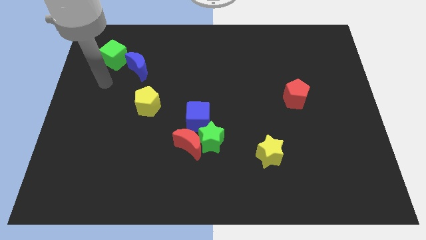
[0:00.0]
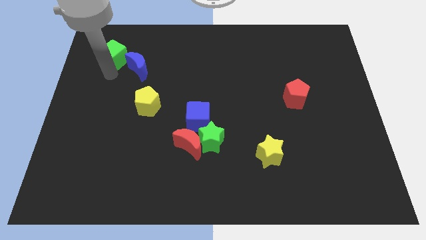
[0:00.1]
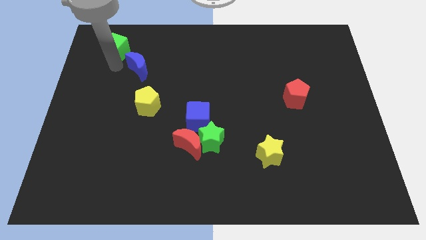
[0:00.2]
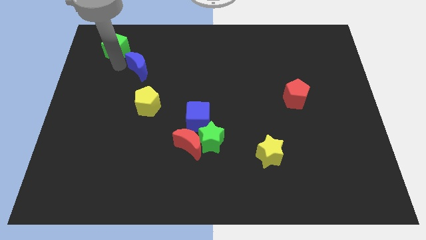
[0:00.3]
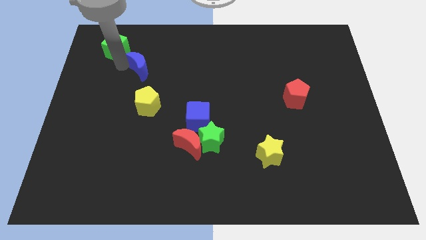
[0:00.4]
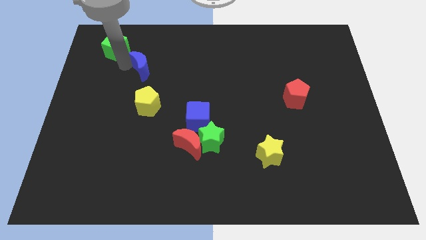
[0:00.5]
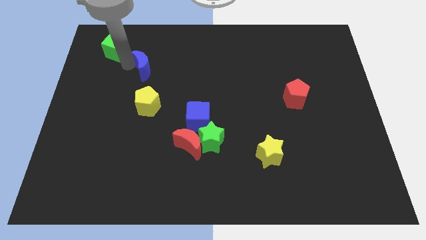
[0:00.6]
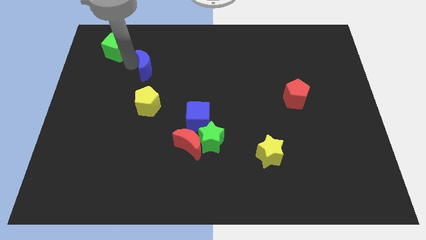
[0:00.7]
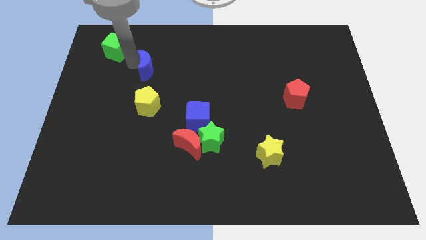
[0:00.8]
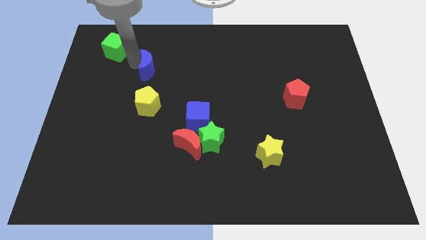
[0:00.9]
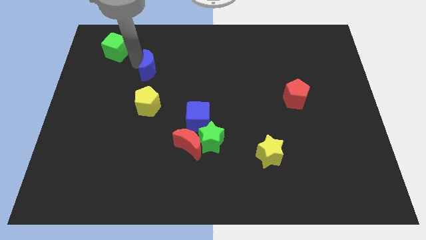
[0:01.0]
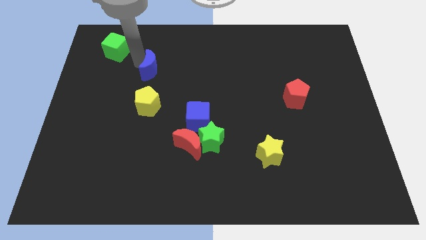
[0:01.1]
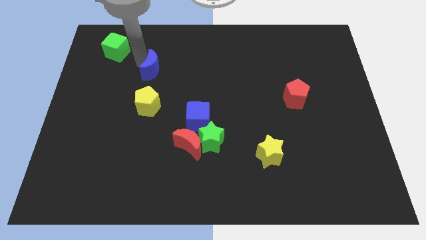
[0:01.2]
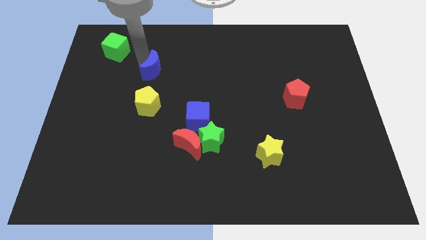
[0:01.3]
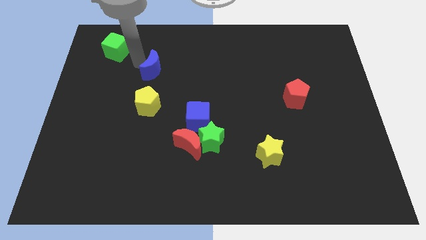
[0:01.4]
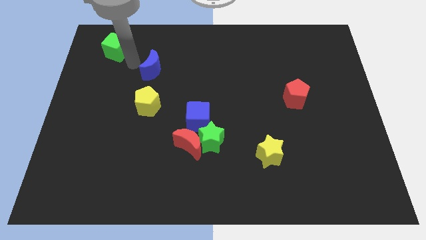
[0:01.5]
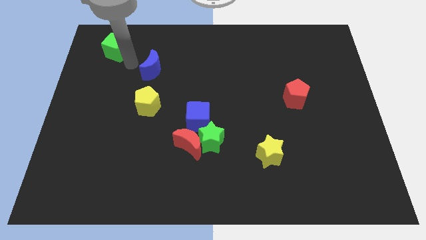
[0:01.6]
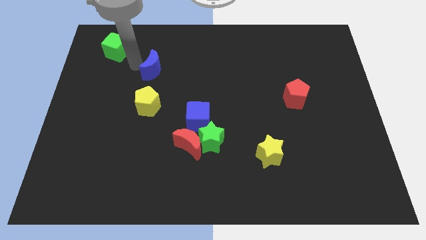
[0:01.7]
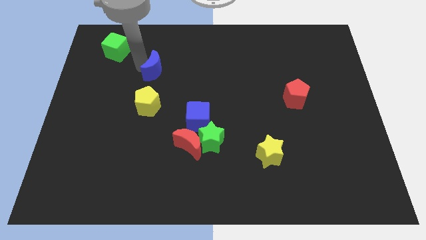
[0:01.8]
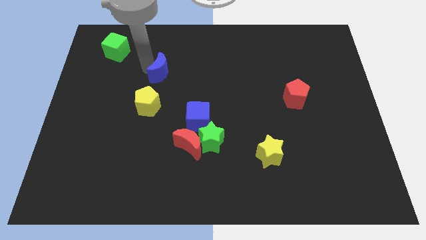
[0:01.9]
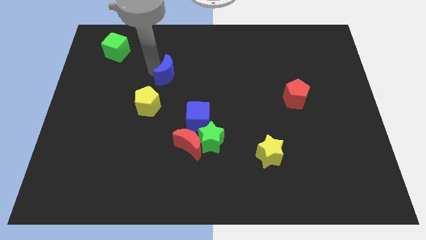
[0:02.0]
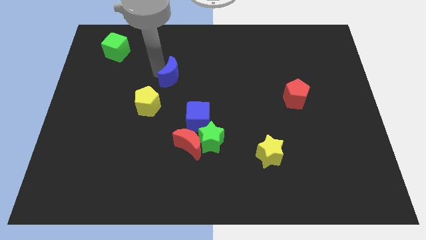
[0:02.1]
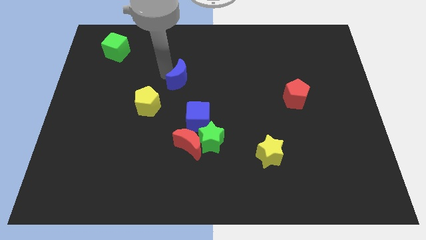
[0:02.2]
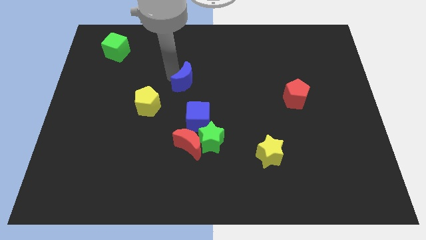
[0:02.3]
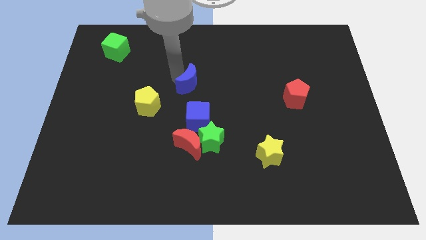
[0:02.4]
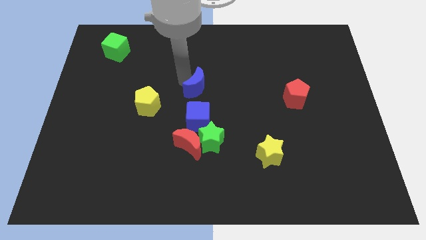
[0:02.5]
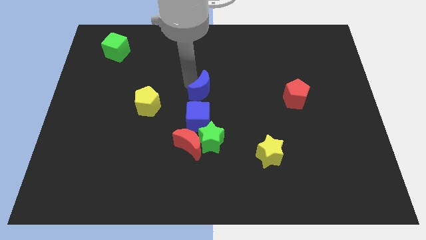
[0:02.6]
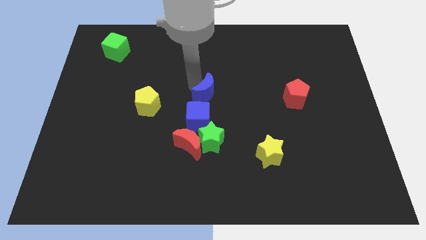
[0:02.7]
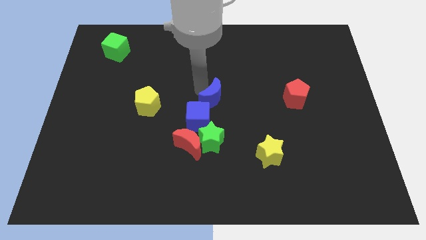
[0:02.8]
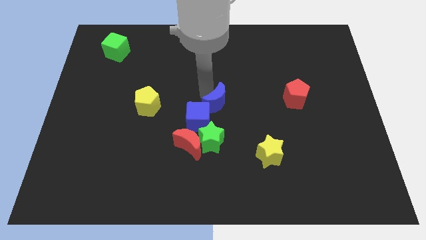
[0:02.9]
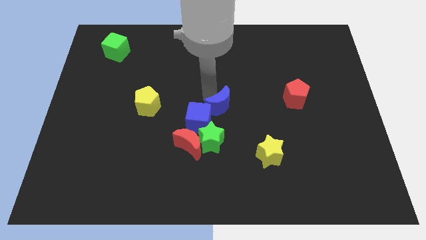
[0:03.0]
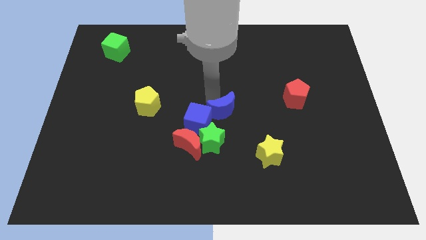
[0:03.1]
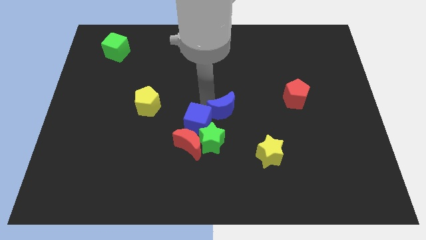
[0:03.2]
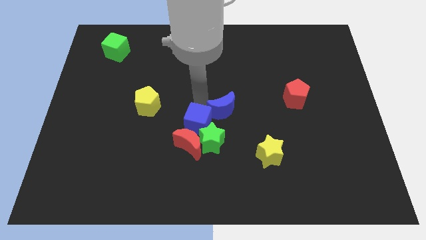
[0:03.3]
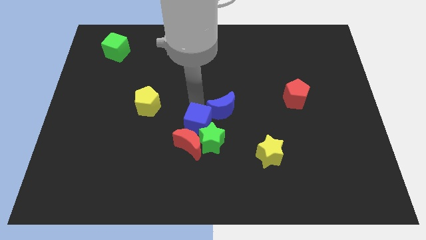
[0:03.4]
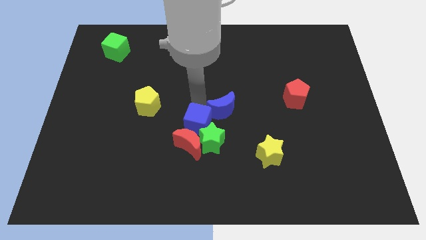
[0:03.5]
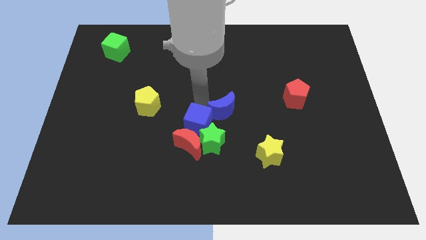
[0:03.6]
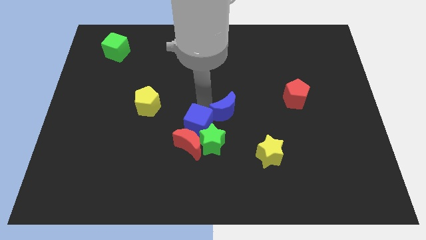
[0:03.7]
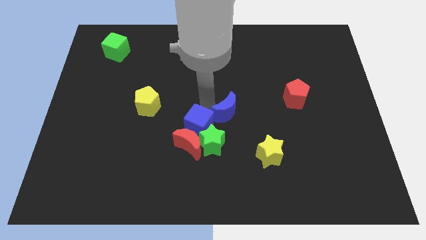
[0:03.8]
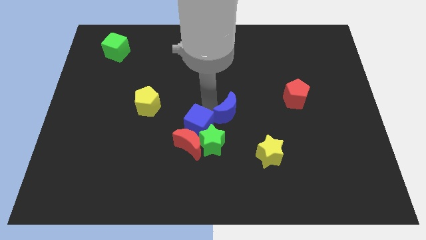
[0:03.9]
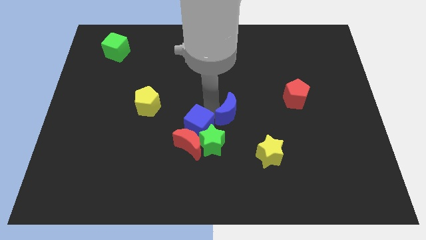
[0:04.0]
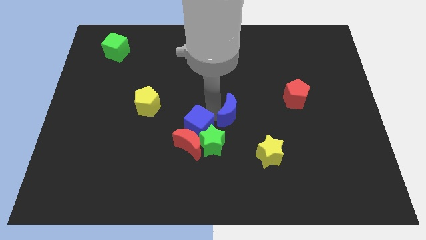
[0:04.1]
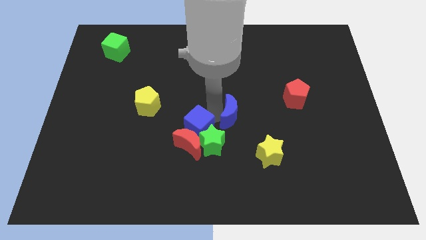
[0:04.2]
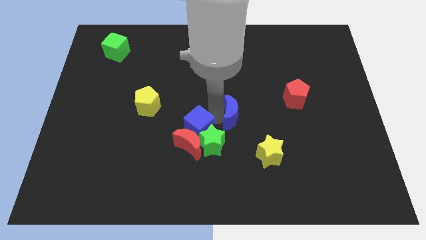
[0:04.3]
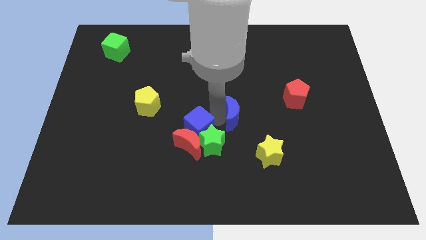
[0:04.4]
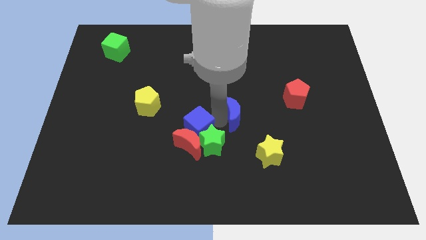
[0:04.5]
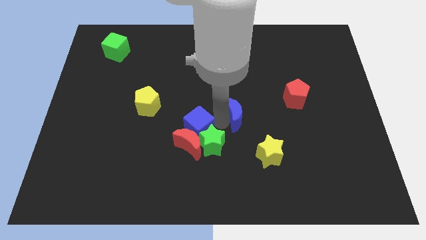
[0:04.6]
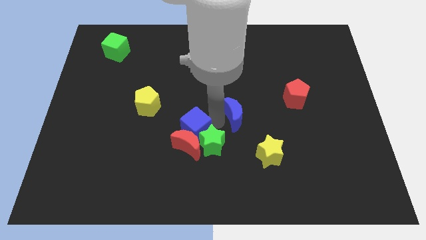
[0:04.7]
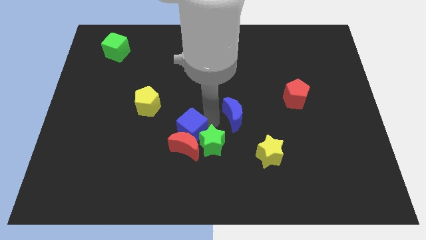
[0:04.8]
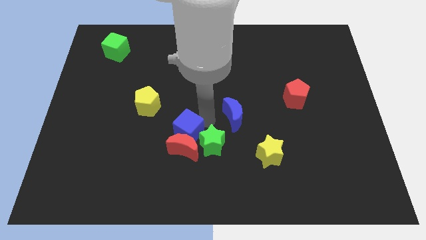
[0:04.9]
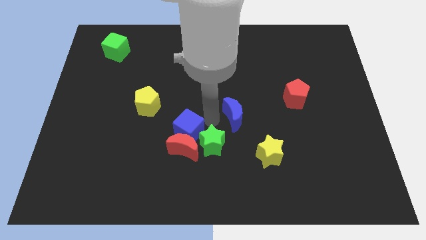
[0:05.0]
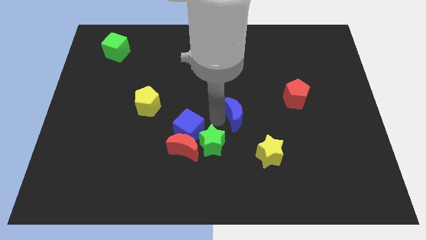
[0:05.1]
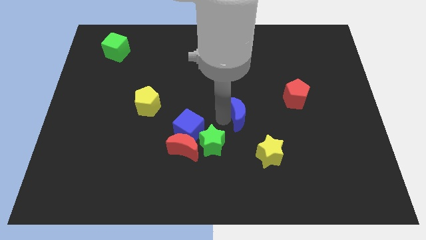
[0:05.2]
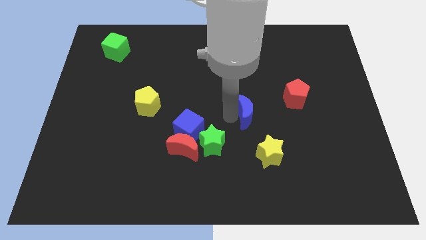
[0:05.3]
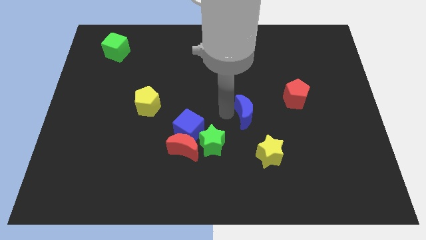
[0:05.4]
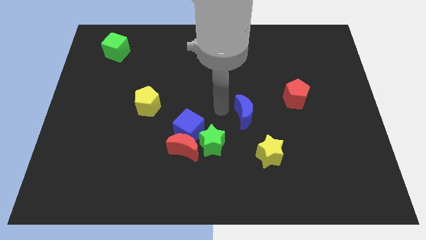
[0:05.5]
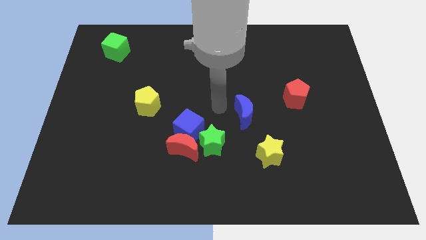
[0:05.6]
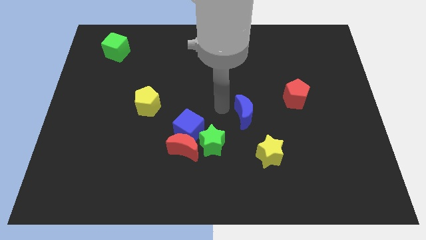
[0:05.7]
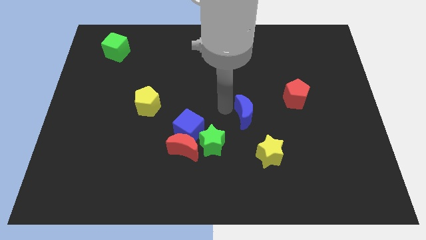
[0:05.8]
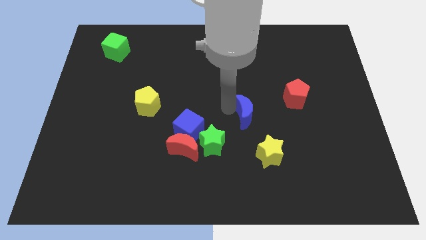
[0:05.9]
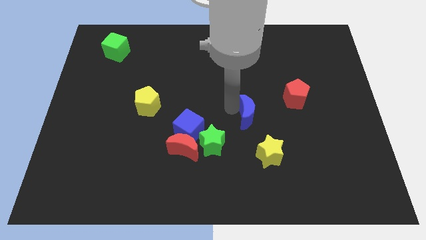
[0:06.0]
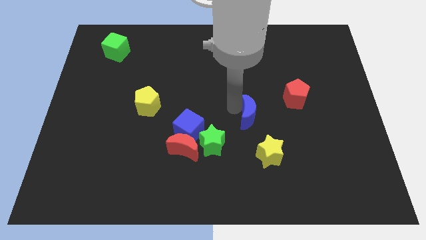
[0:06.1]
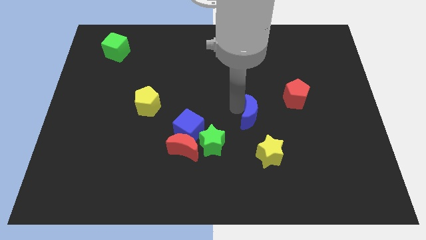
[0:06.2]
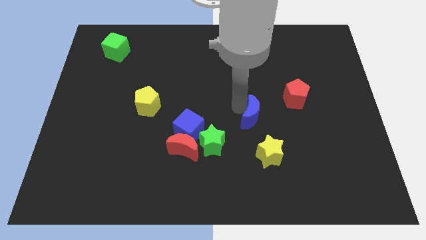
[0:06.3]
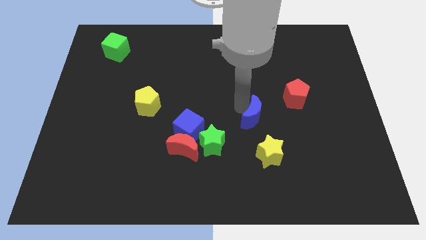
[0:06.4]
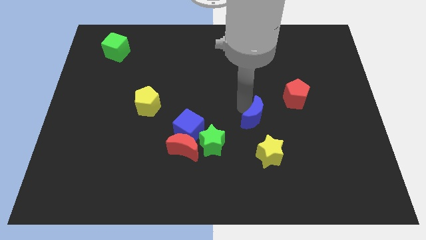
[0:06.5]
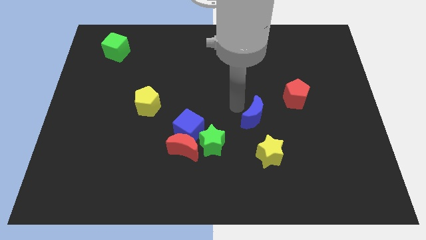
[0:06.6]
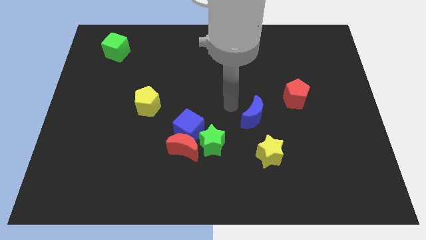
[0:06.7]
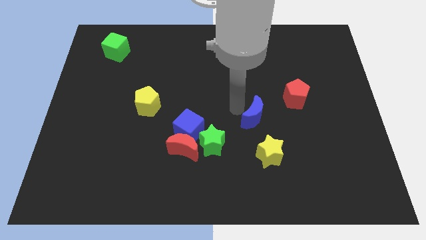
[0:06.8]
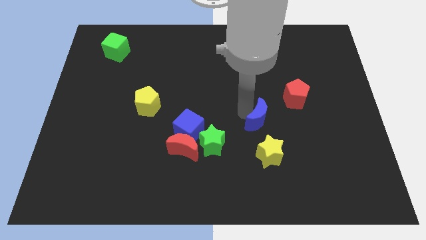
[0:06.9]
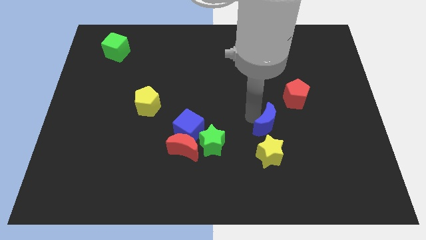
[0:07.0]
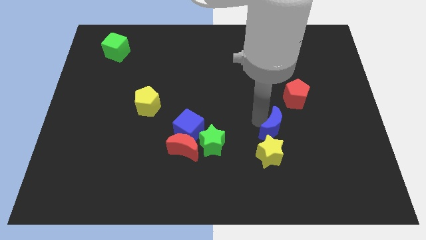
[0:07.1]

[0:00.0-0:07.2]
push the blue moon to the top right of the yellow star
